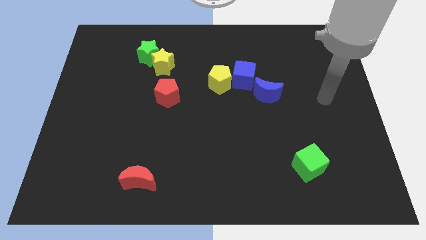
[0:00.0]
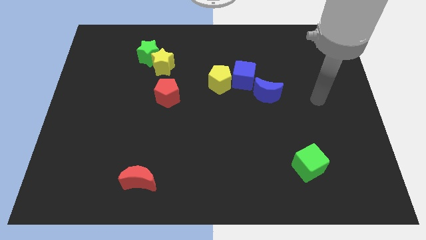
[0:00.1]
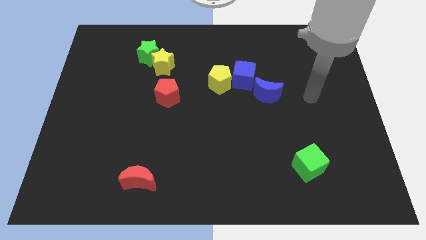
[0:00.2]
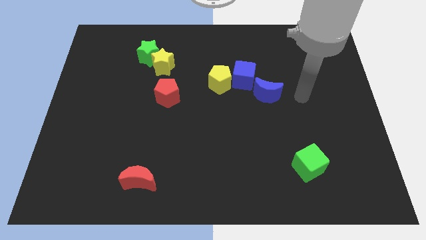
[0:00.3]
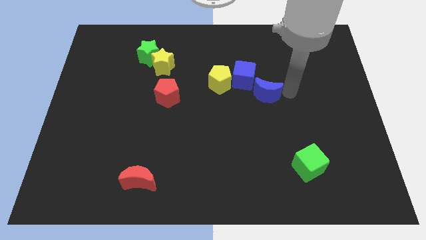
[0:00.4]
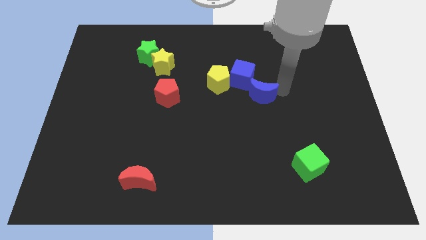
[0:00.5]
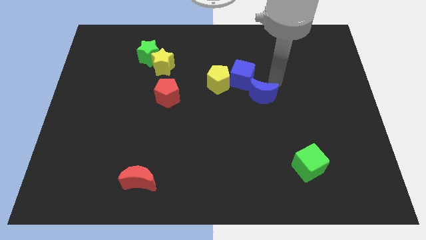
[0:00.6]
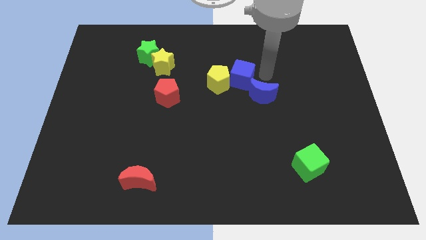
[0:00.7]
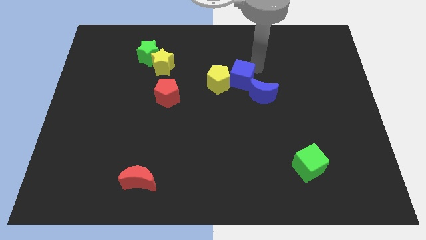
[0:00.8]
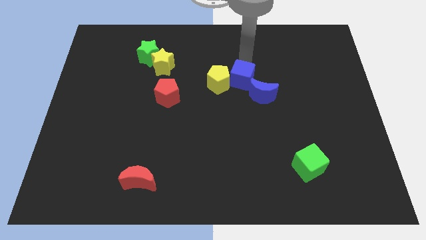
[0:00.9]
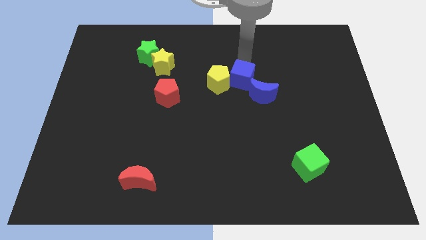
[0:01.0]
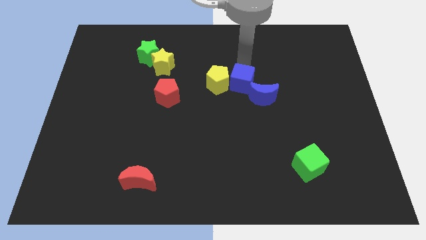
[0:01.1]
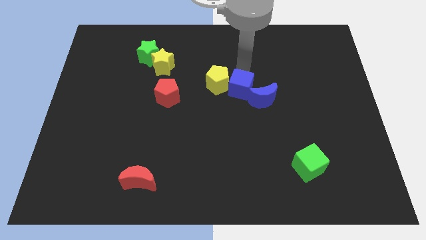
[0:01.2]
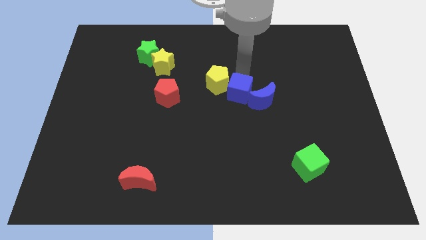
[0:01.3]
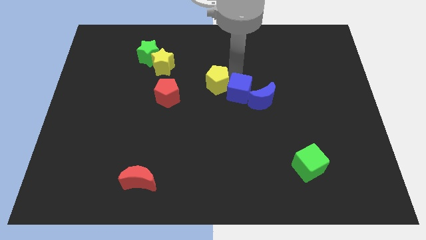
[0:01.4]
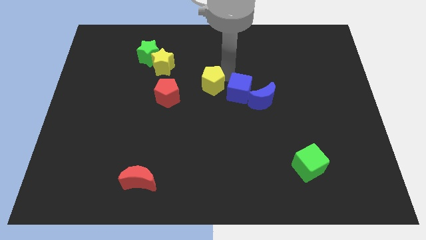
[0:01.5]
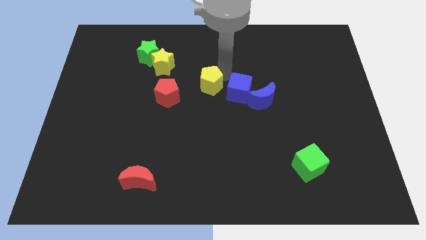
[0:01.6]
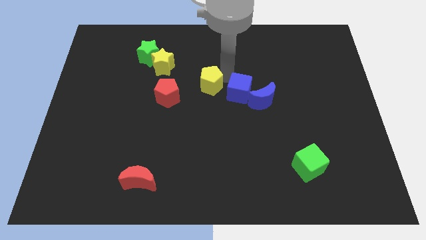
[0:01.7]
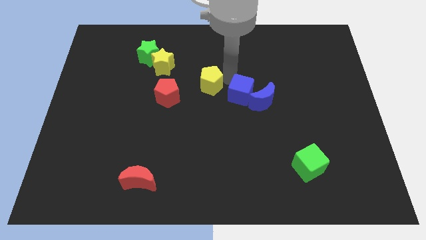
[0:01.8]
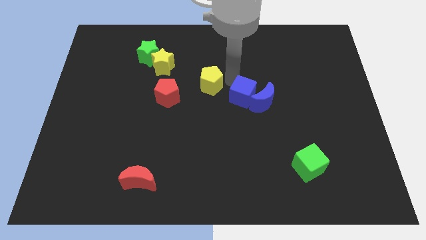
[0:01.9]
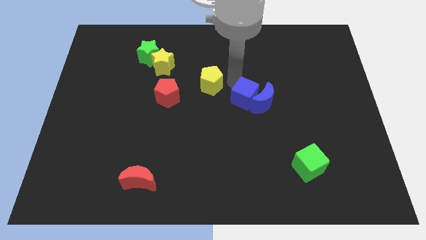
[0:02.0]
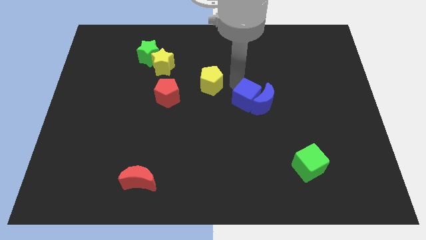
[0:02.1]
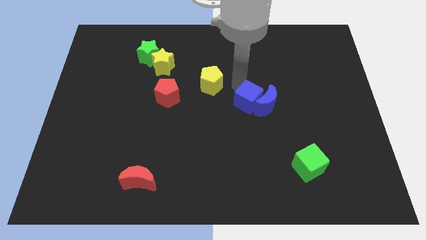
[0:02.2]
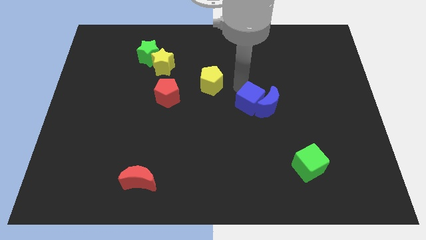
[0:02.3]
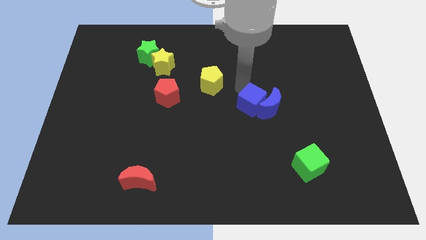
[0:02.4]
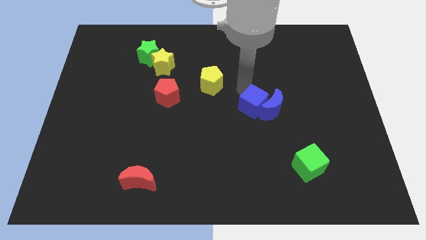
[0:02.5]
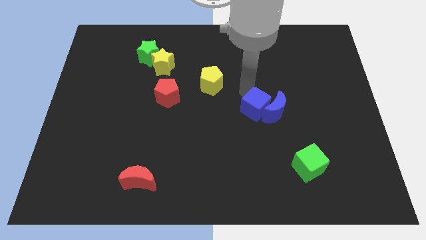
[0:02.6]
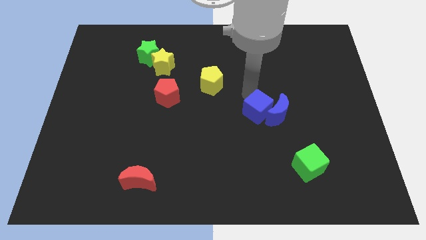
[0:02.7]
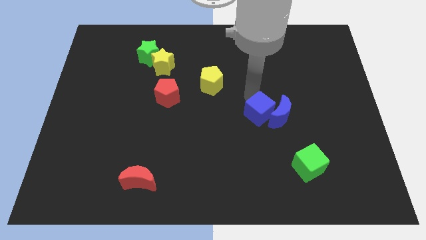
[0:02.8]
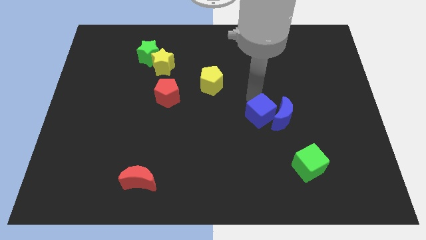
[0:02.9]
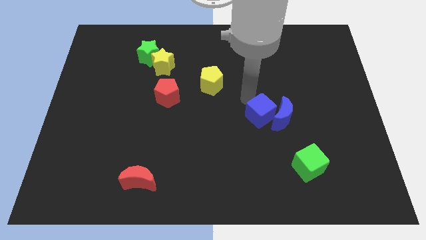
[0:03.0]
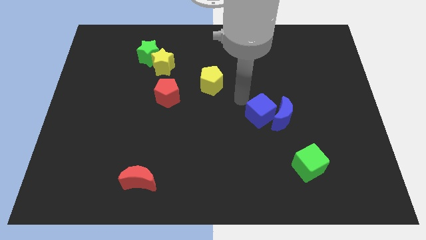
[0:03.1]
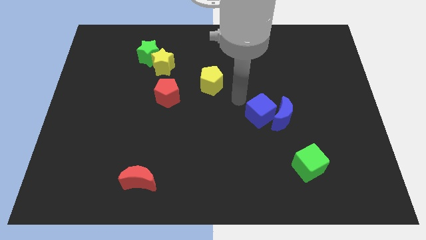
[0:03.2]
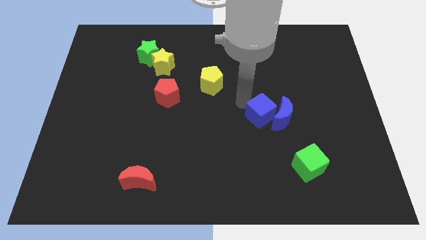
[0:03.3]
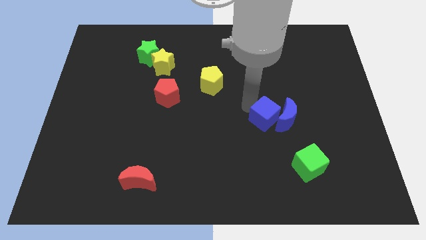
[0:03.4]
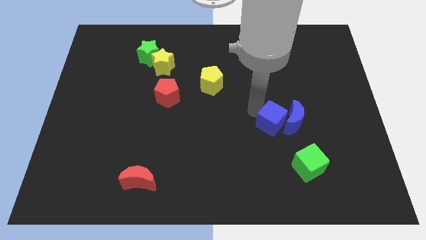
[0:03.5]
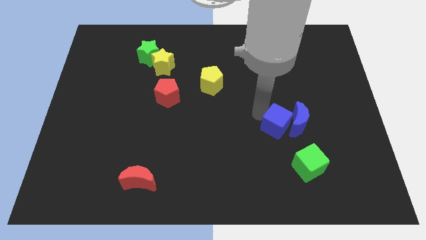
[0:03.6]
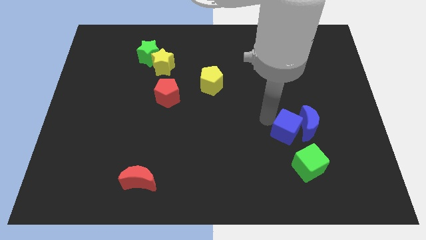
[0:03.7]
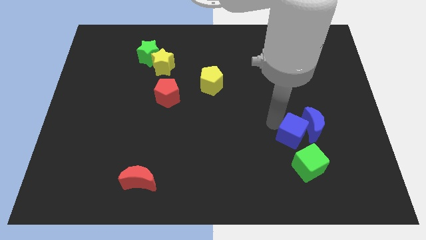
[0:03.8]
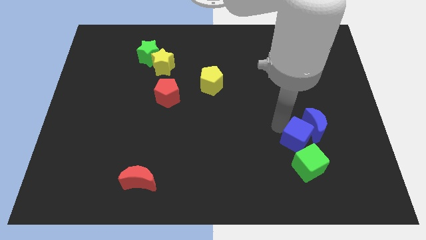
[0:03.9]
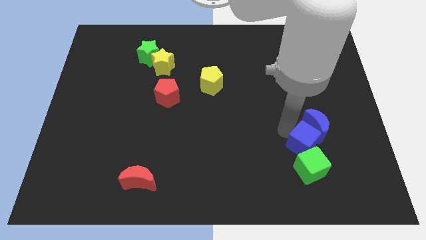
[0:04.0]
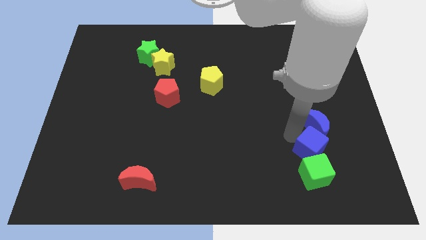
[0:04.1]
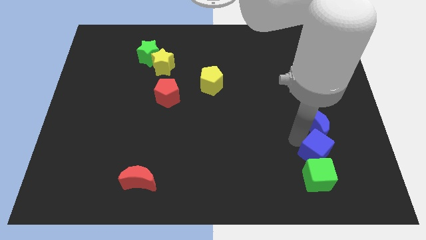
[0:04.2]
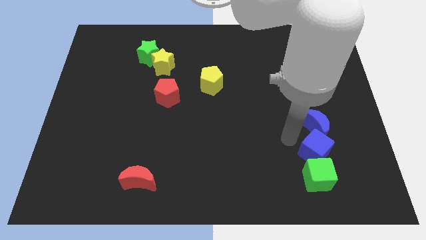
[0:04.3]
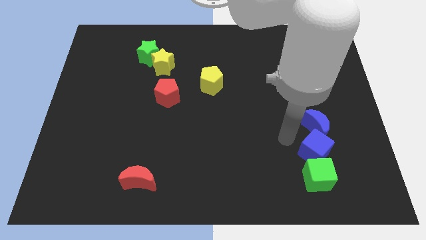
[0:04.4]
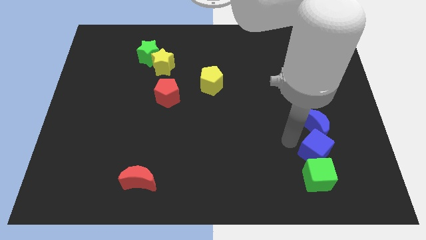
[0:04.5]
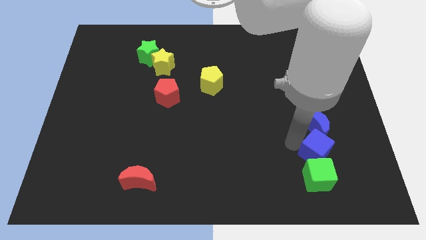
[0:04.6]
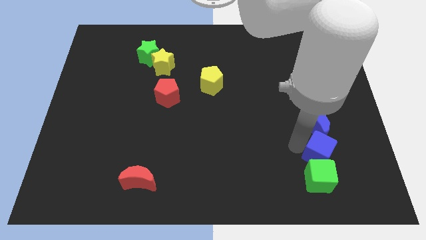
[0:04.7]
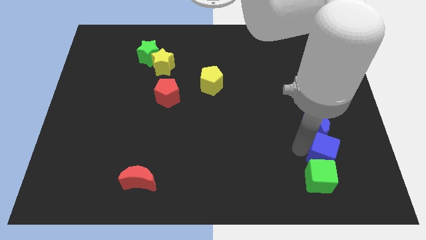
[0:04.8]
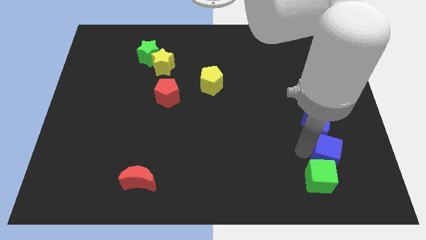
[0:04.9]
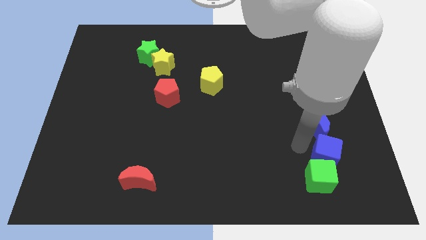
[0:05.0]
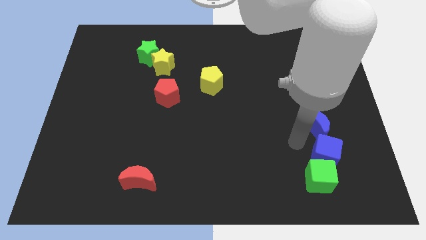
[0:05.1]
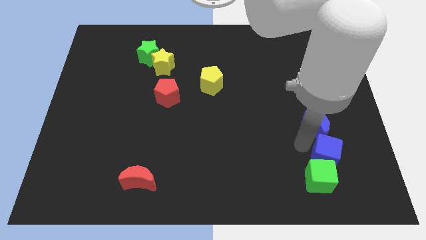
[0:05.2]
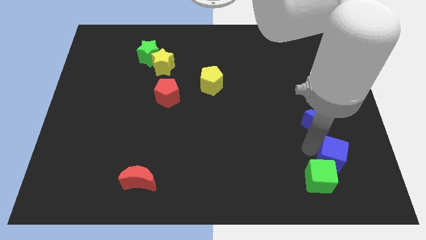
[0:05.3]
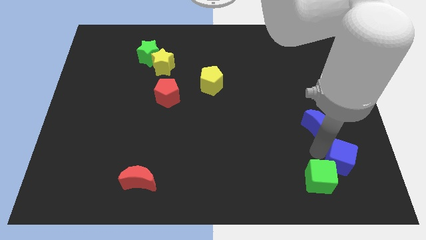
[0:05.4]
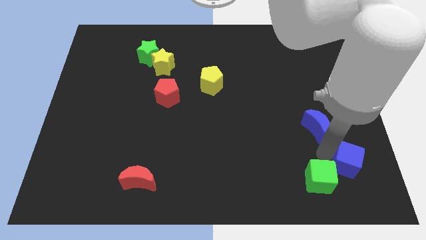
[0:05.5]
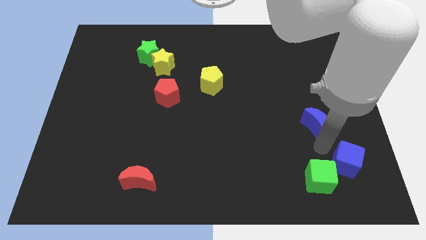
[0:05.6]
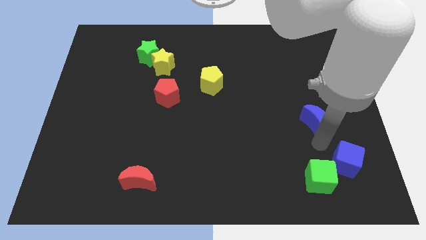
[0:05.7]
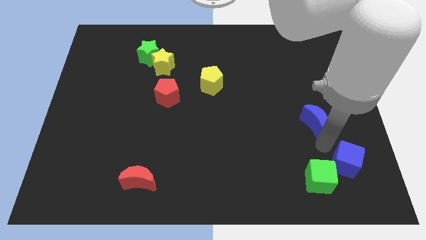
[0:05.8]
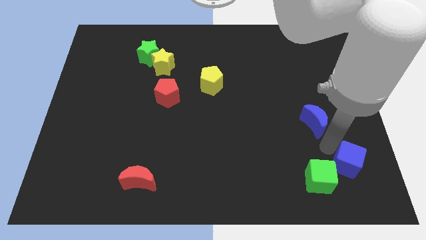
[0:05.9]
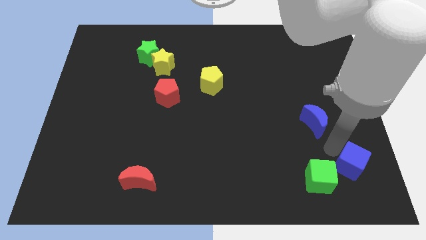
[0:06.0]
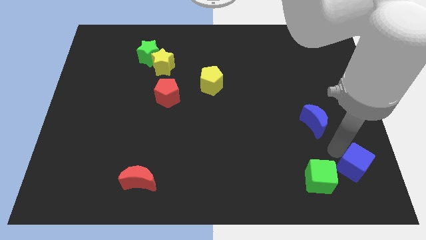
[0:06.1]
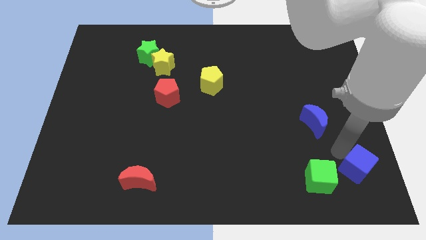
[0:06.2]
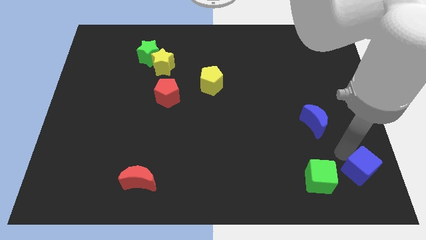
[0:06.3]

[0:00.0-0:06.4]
put the blue cube to the bottom right

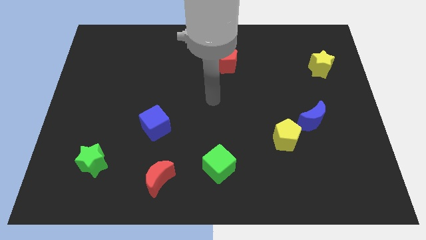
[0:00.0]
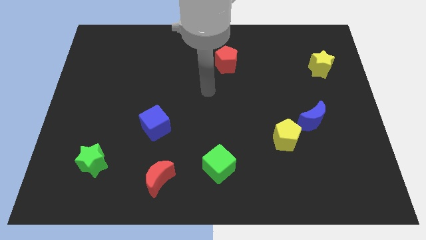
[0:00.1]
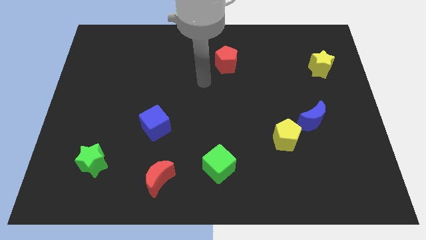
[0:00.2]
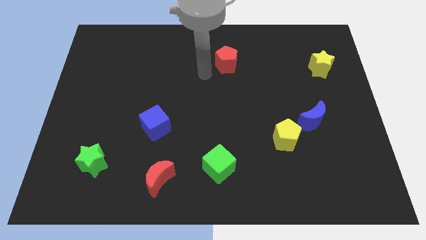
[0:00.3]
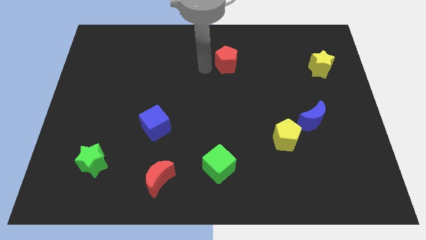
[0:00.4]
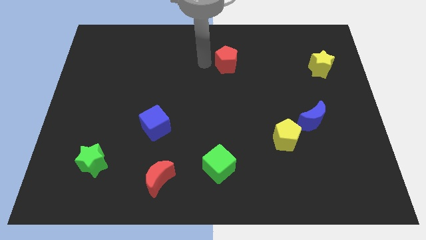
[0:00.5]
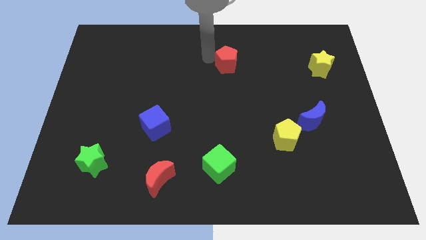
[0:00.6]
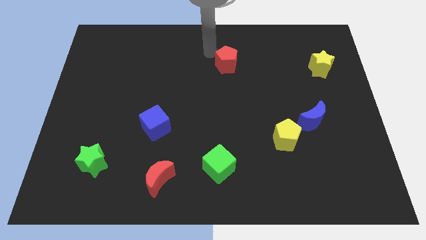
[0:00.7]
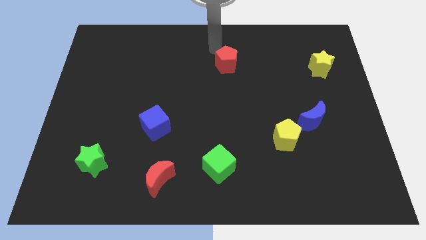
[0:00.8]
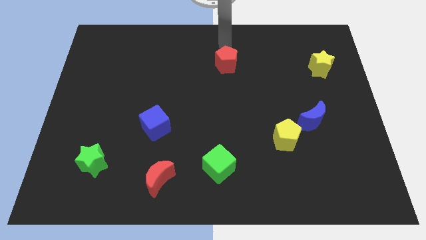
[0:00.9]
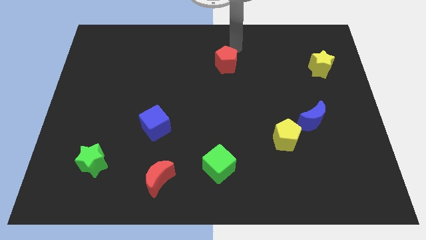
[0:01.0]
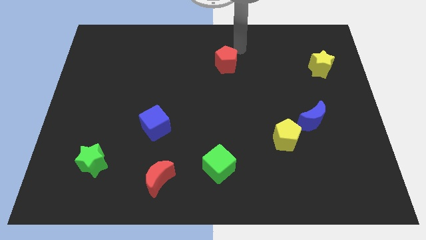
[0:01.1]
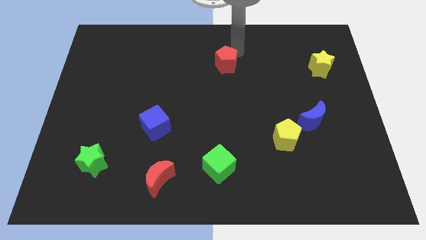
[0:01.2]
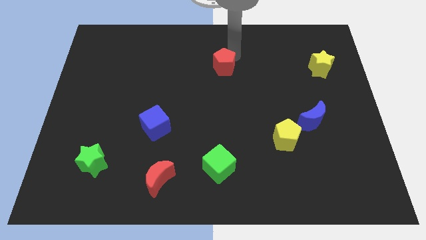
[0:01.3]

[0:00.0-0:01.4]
move the red pentagon to the middle
